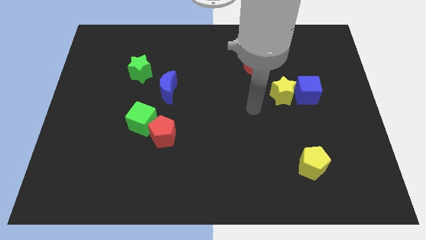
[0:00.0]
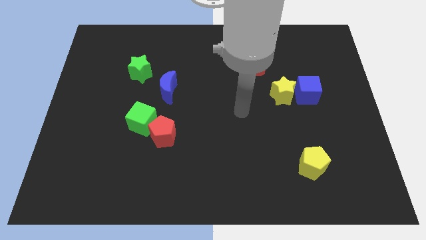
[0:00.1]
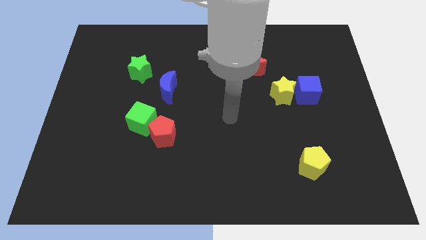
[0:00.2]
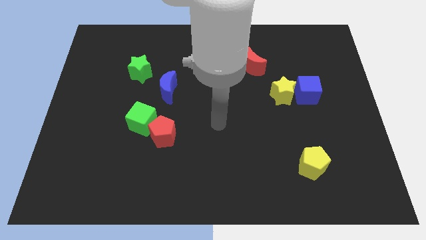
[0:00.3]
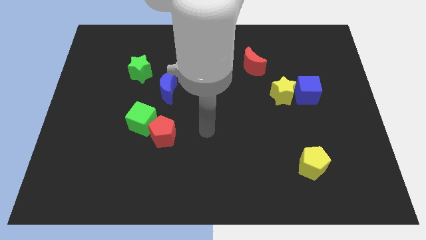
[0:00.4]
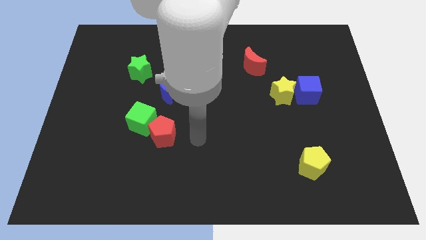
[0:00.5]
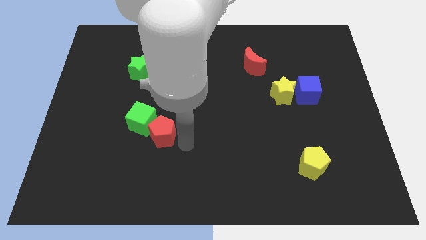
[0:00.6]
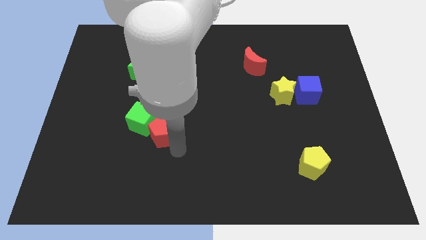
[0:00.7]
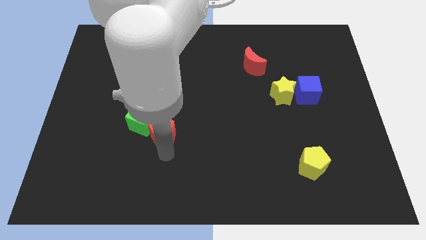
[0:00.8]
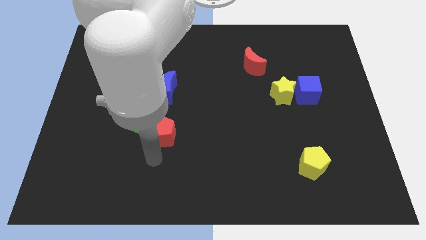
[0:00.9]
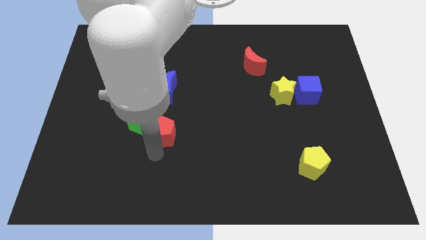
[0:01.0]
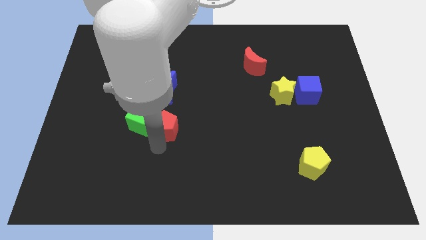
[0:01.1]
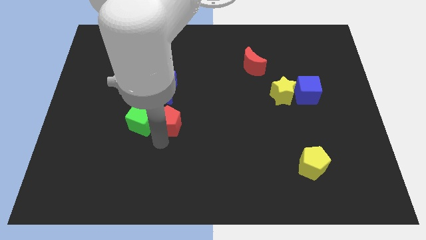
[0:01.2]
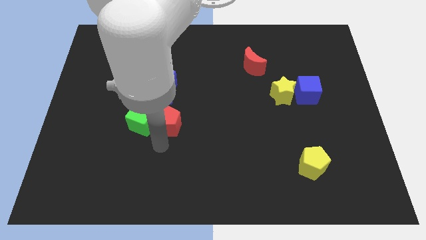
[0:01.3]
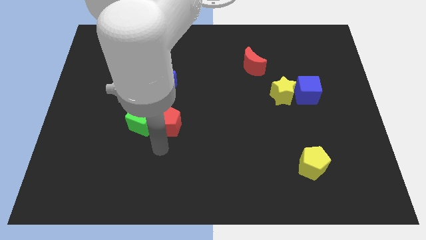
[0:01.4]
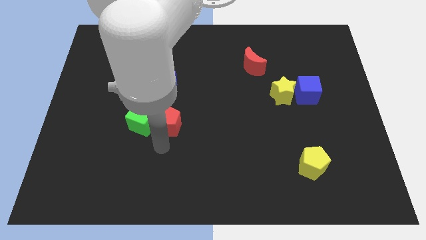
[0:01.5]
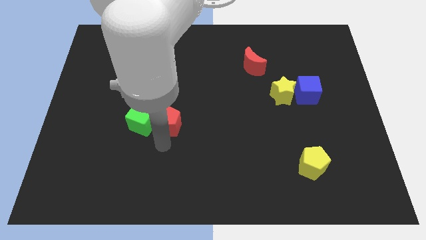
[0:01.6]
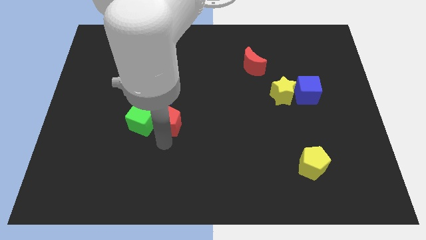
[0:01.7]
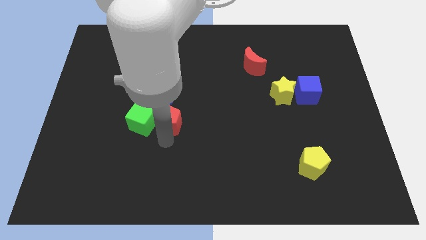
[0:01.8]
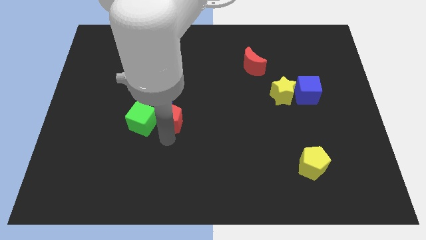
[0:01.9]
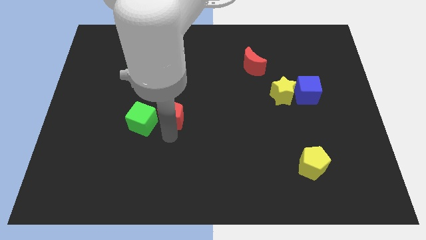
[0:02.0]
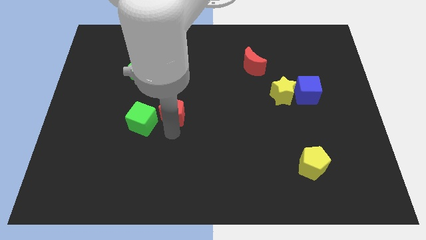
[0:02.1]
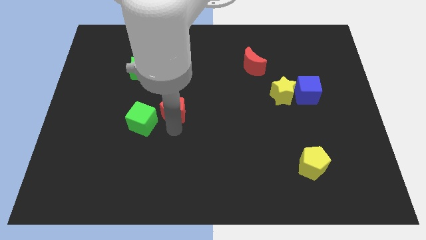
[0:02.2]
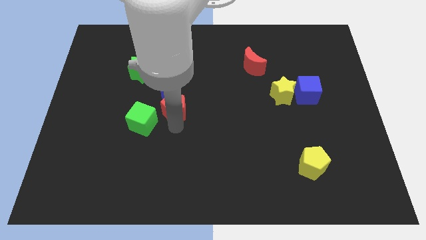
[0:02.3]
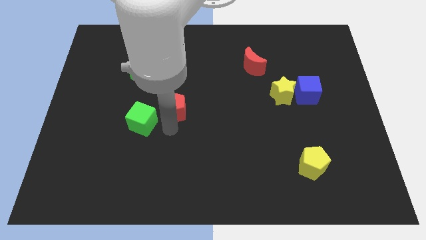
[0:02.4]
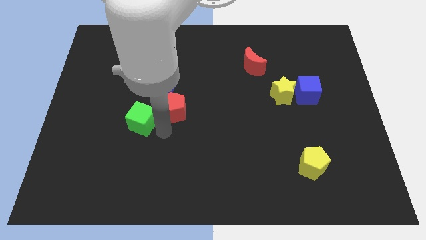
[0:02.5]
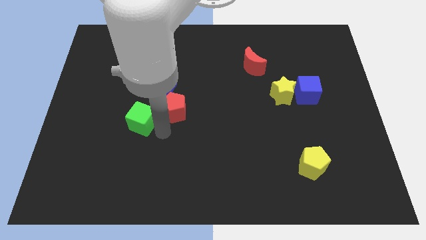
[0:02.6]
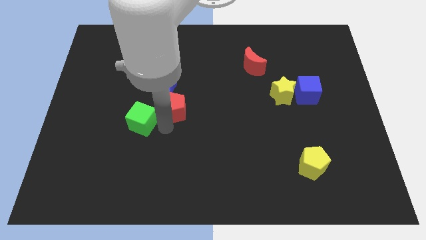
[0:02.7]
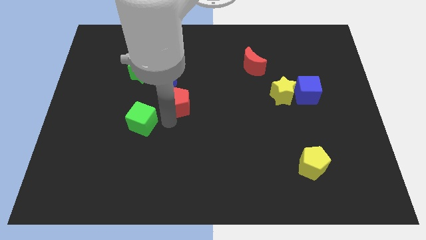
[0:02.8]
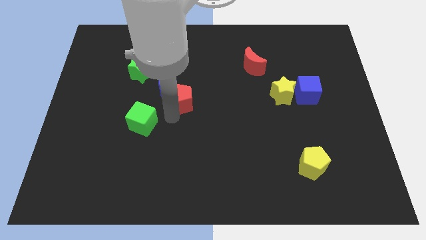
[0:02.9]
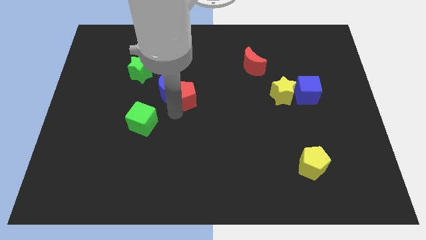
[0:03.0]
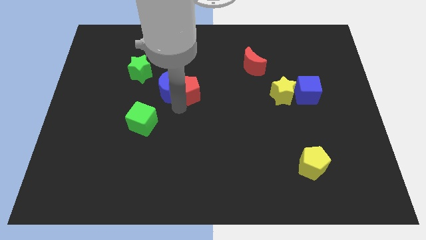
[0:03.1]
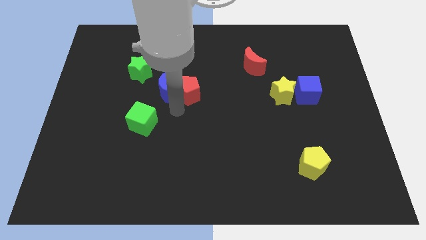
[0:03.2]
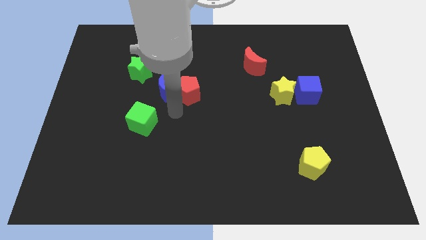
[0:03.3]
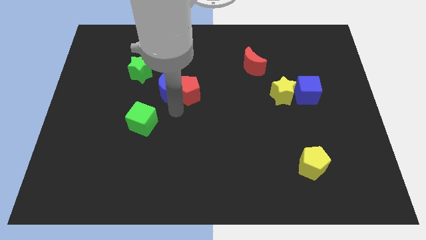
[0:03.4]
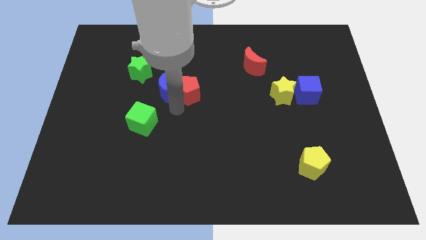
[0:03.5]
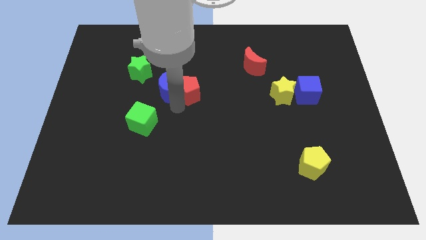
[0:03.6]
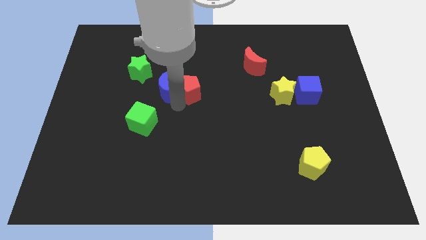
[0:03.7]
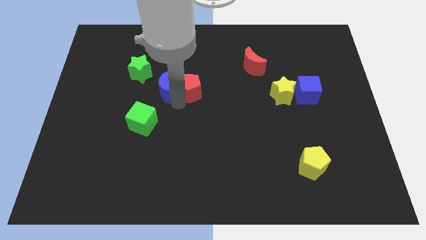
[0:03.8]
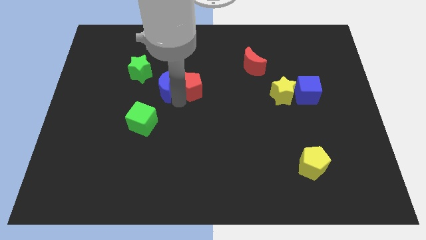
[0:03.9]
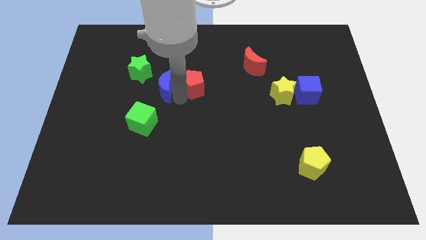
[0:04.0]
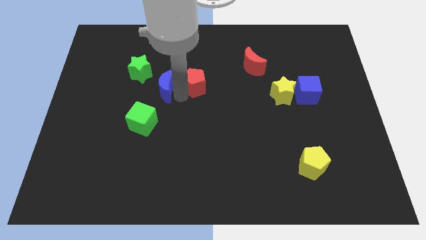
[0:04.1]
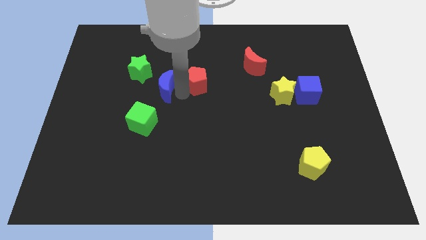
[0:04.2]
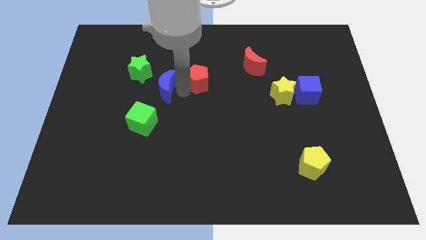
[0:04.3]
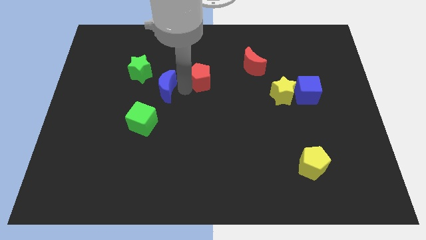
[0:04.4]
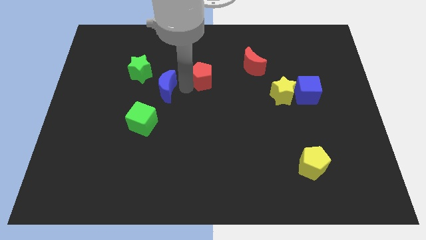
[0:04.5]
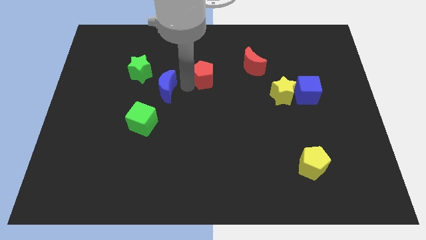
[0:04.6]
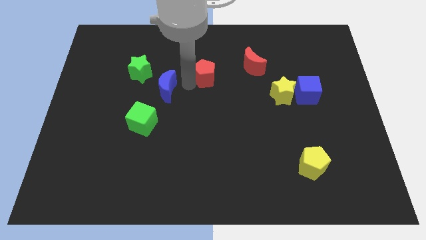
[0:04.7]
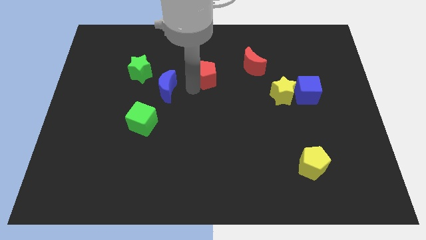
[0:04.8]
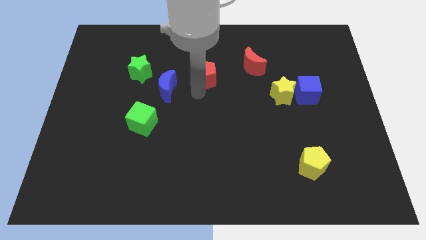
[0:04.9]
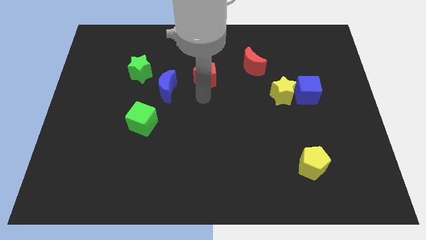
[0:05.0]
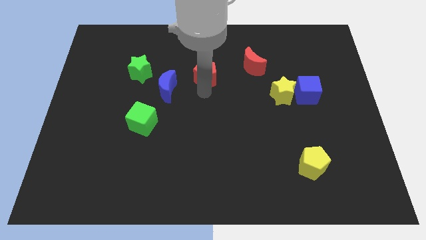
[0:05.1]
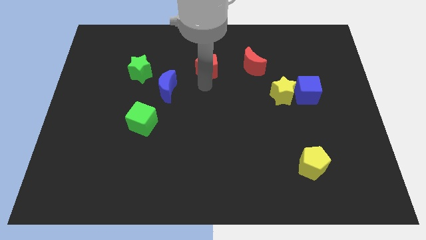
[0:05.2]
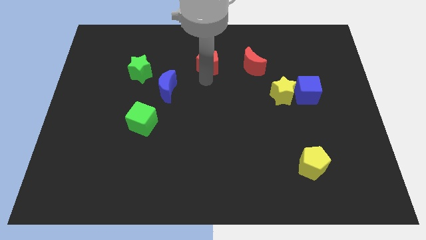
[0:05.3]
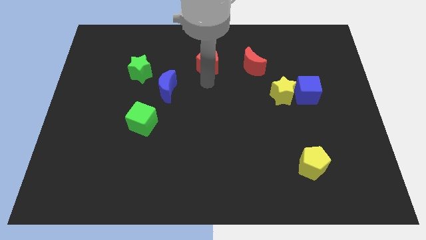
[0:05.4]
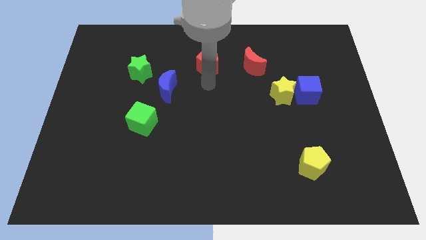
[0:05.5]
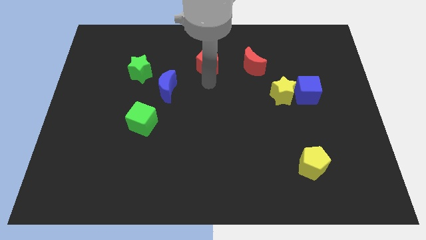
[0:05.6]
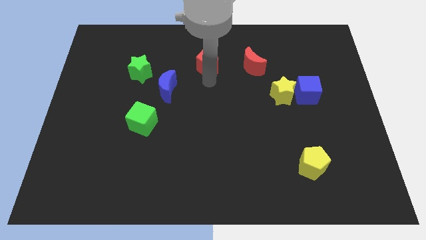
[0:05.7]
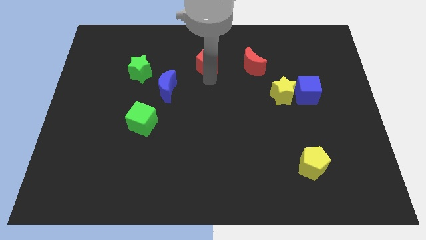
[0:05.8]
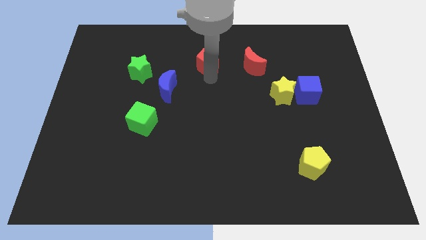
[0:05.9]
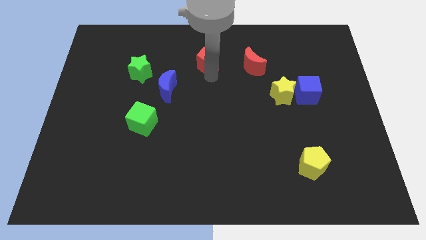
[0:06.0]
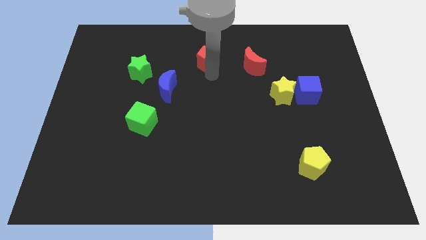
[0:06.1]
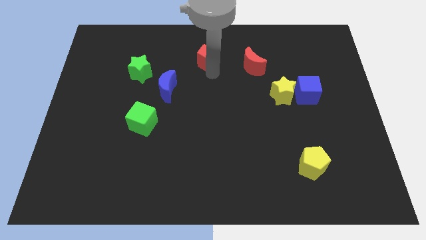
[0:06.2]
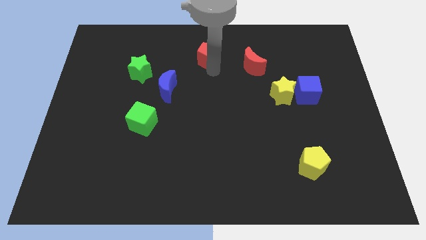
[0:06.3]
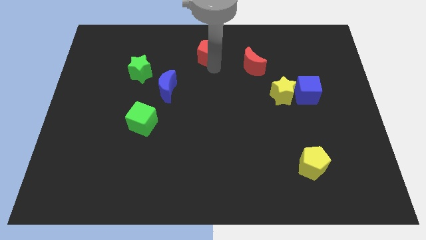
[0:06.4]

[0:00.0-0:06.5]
slide the red pentagon to the towards your base
